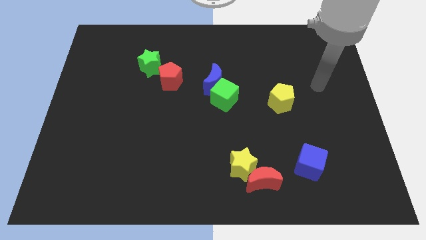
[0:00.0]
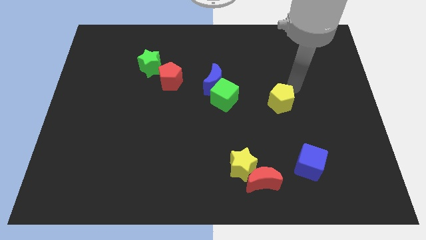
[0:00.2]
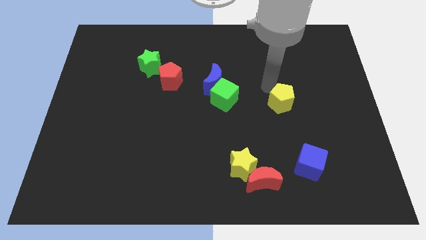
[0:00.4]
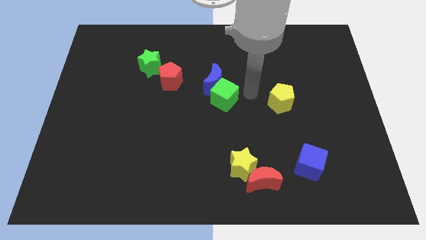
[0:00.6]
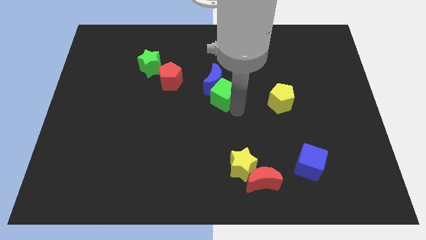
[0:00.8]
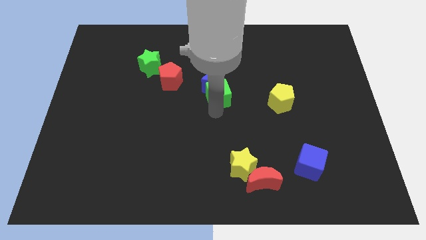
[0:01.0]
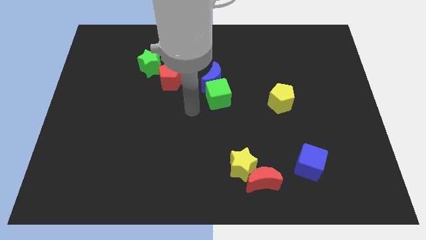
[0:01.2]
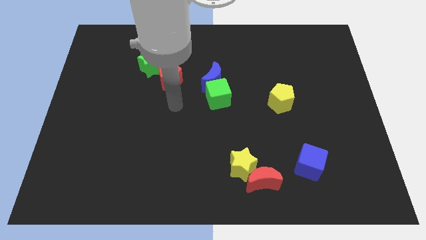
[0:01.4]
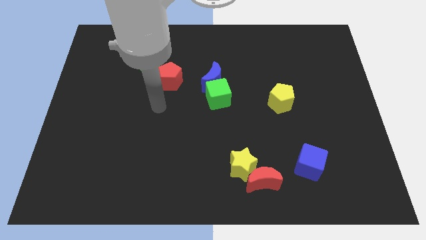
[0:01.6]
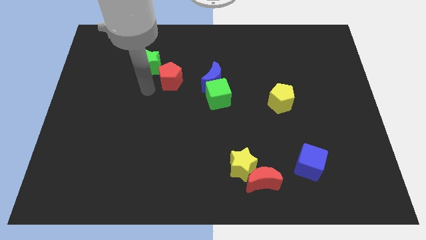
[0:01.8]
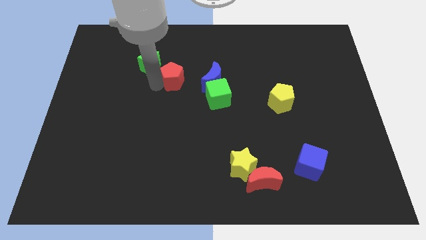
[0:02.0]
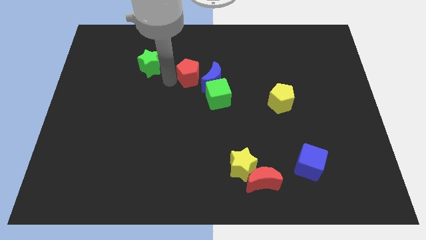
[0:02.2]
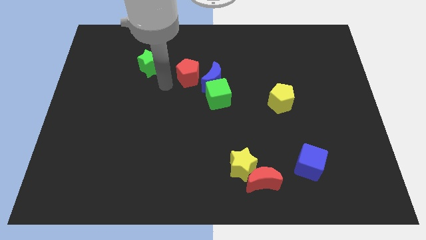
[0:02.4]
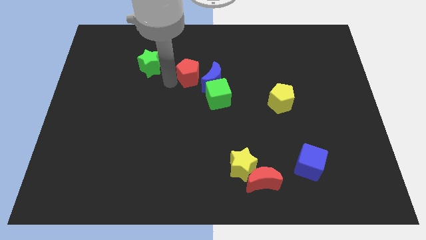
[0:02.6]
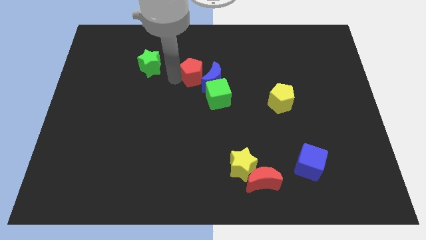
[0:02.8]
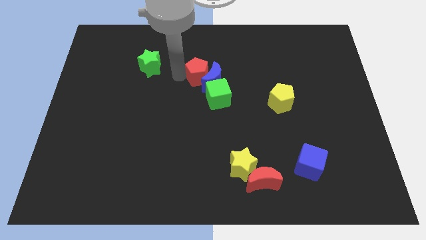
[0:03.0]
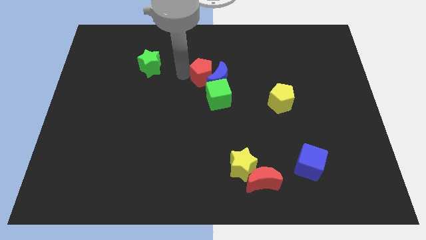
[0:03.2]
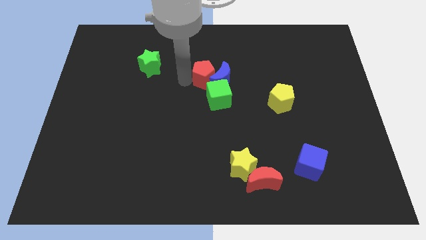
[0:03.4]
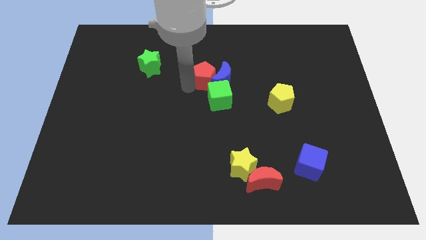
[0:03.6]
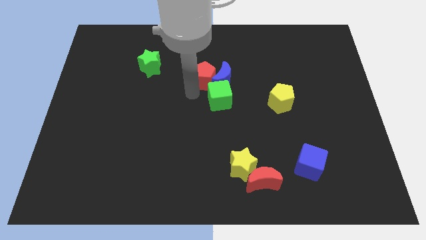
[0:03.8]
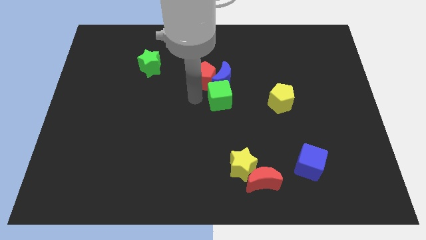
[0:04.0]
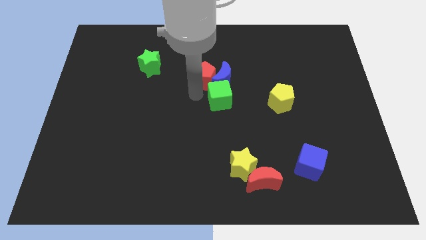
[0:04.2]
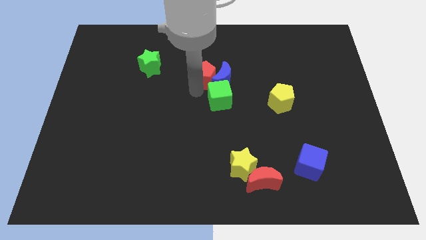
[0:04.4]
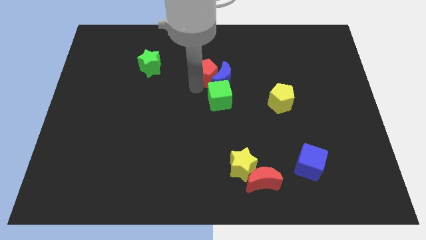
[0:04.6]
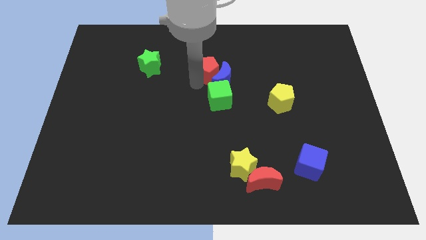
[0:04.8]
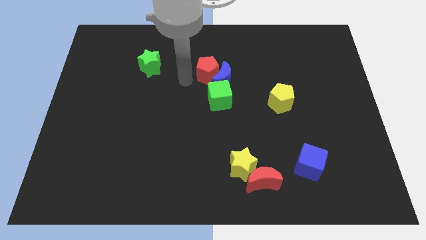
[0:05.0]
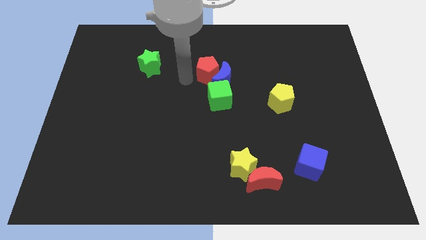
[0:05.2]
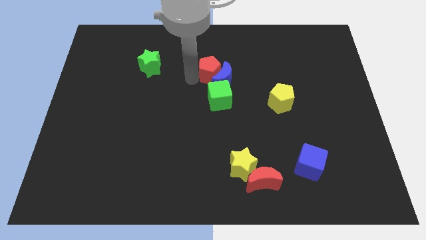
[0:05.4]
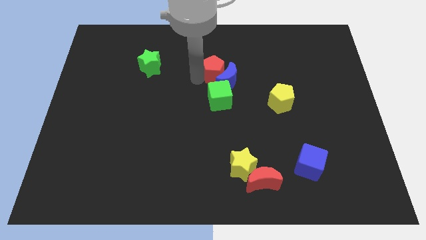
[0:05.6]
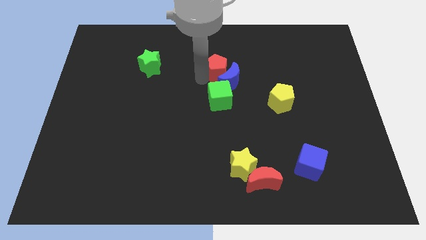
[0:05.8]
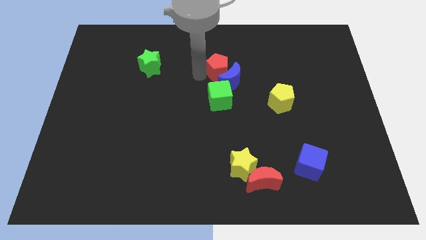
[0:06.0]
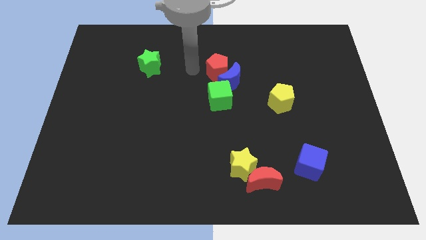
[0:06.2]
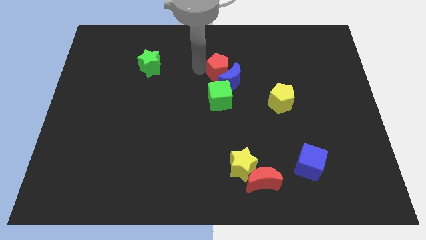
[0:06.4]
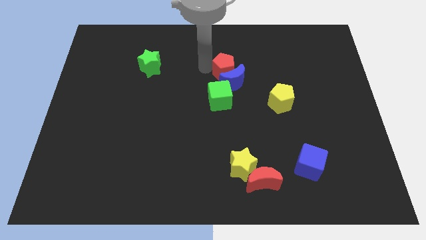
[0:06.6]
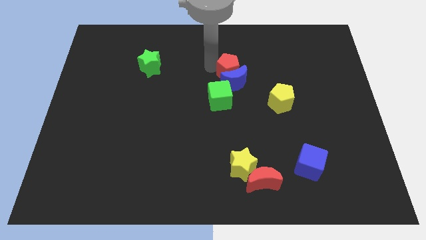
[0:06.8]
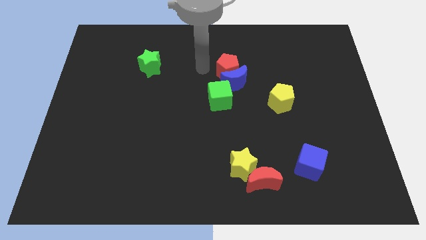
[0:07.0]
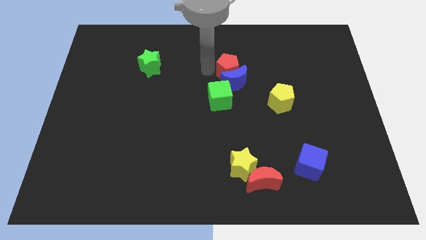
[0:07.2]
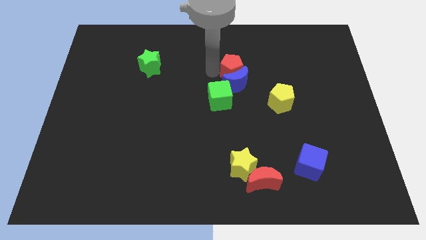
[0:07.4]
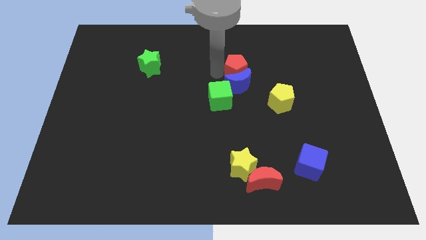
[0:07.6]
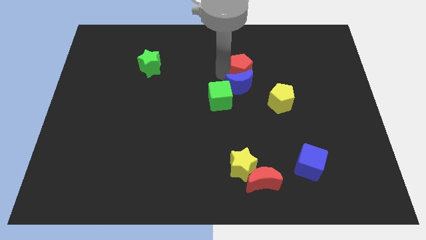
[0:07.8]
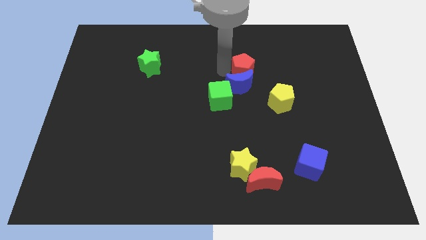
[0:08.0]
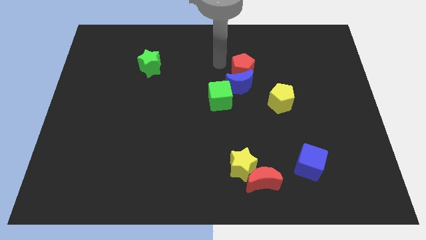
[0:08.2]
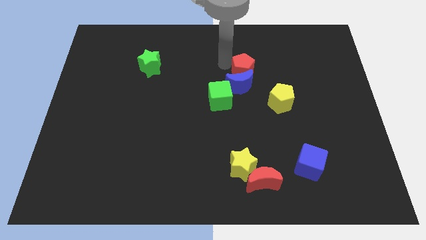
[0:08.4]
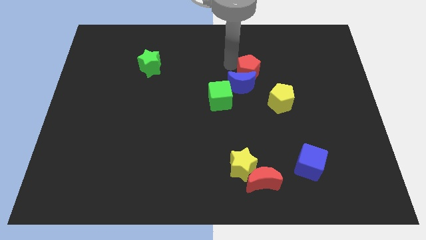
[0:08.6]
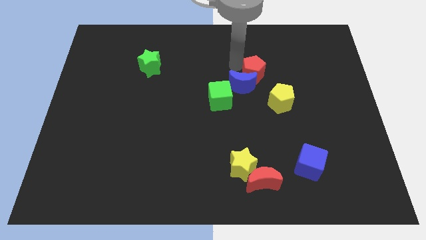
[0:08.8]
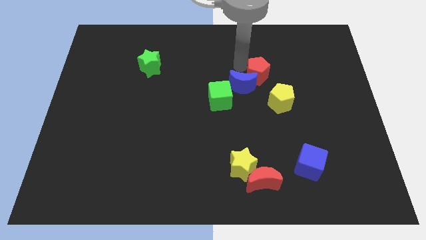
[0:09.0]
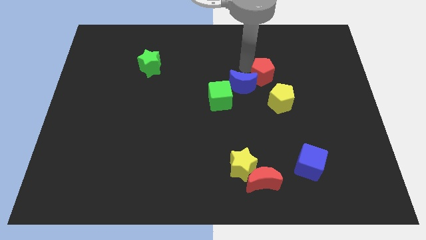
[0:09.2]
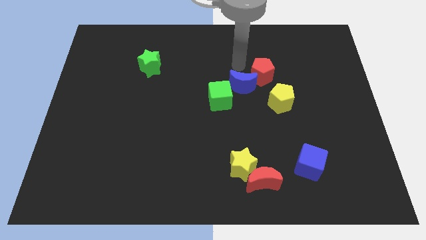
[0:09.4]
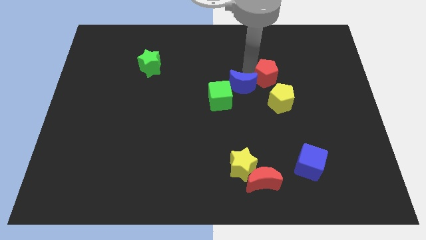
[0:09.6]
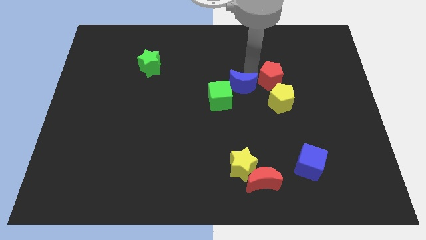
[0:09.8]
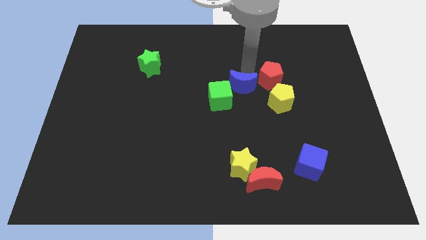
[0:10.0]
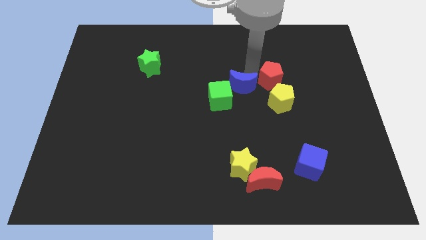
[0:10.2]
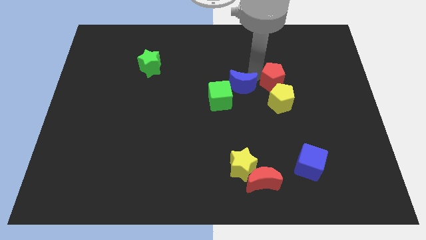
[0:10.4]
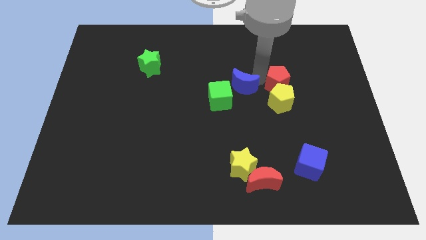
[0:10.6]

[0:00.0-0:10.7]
slide the red pentagon diagonally up and to the right of the yellow pentagon
